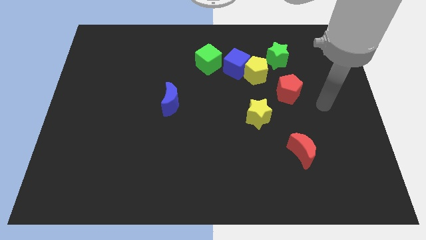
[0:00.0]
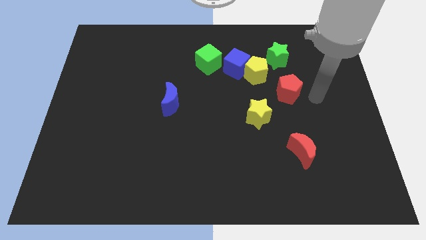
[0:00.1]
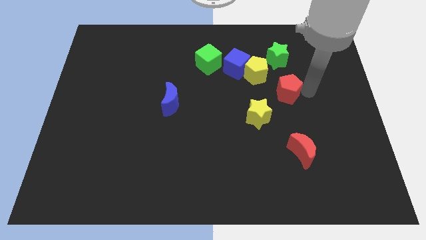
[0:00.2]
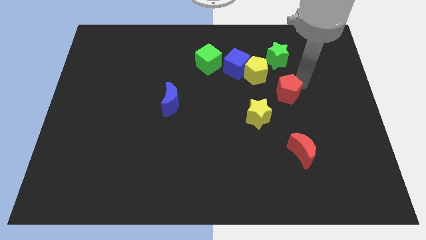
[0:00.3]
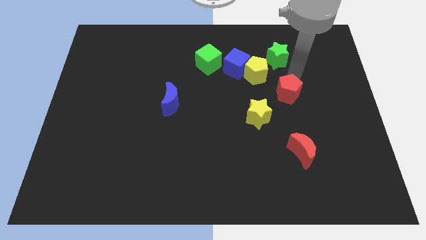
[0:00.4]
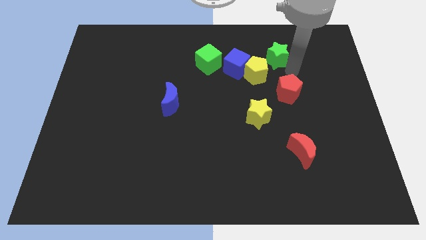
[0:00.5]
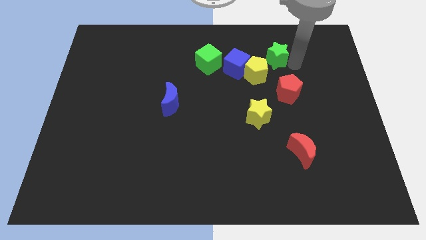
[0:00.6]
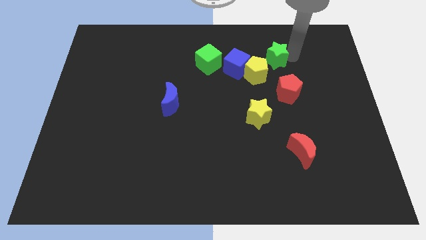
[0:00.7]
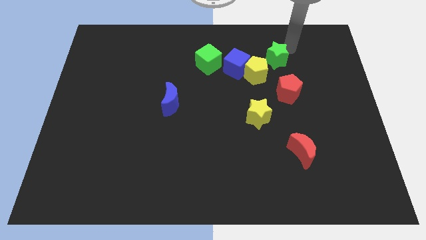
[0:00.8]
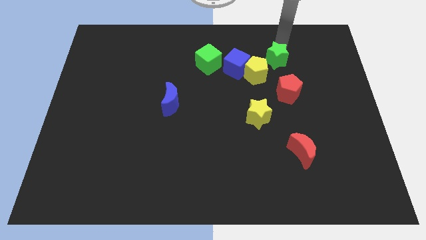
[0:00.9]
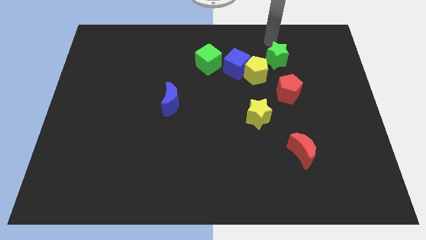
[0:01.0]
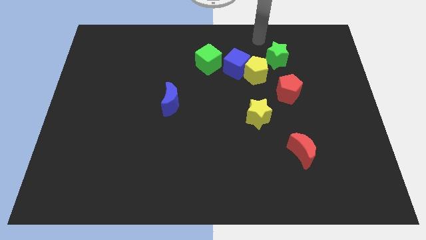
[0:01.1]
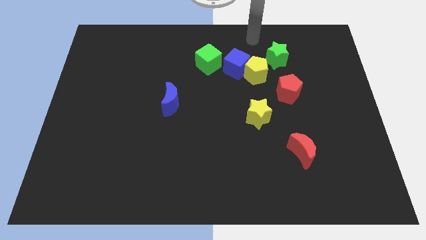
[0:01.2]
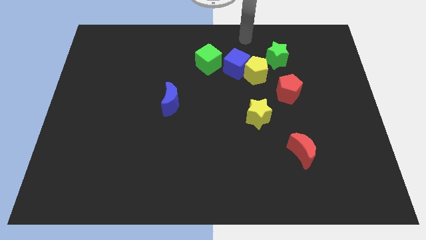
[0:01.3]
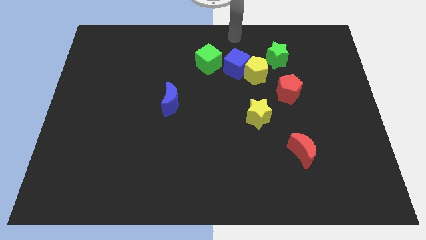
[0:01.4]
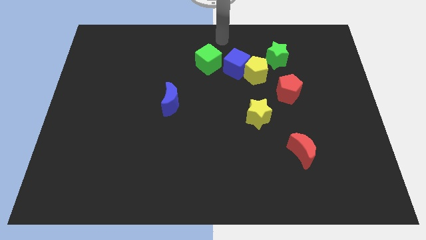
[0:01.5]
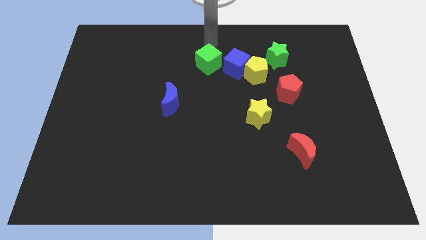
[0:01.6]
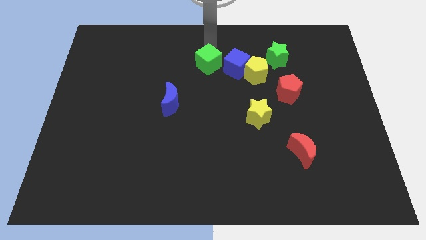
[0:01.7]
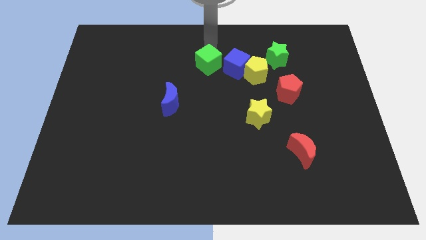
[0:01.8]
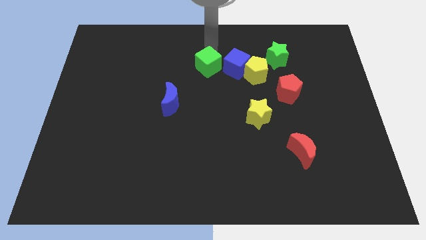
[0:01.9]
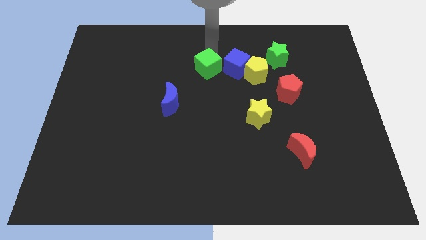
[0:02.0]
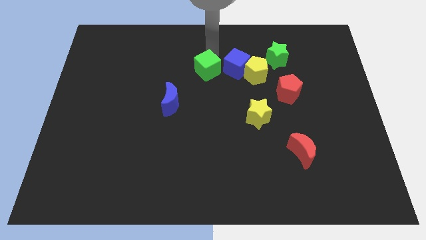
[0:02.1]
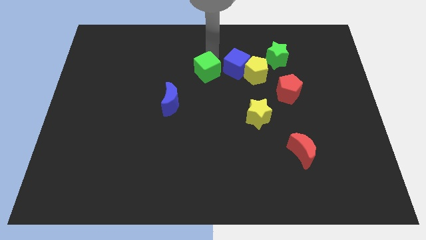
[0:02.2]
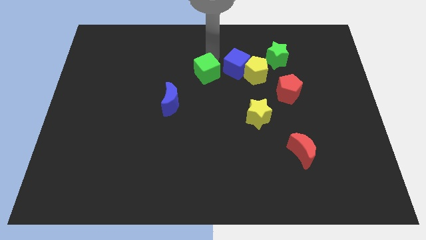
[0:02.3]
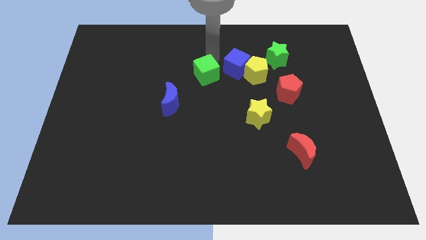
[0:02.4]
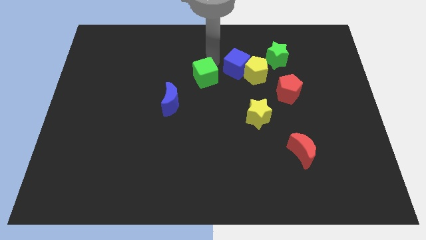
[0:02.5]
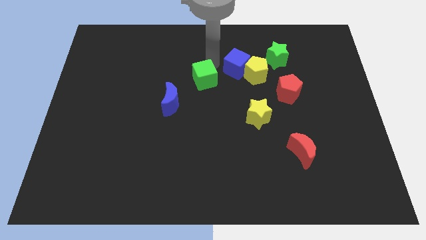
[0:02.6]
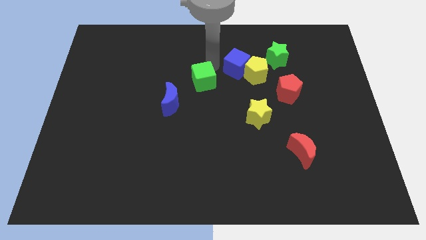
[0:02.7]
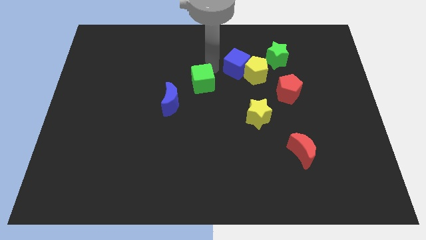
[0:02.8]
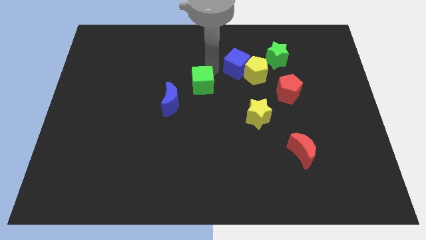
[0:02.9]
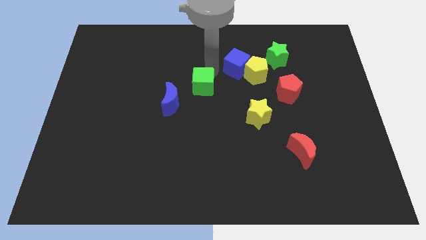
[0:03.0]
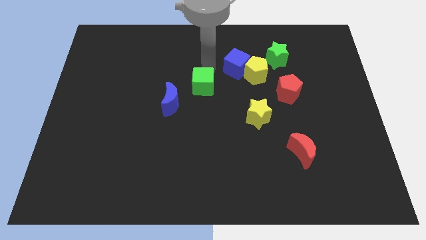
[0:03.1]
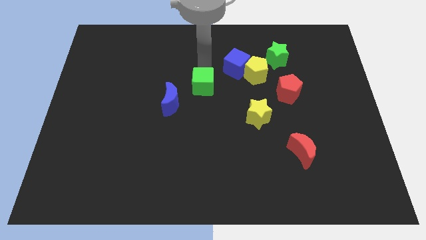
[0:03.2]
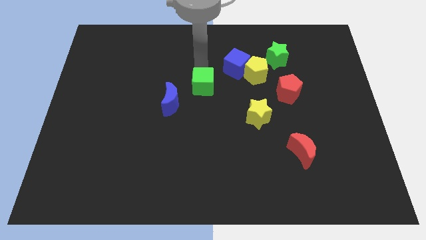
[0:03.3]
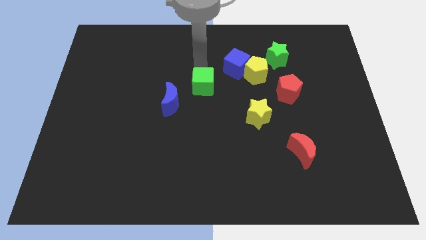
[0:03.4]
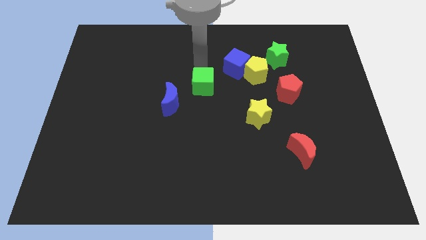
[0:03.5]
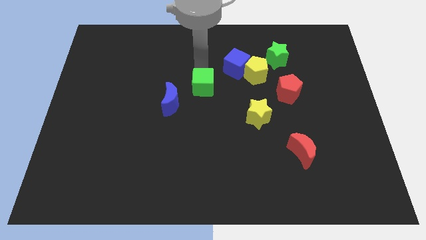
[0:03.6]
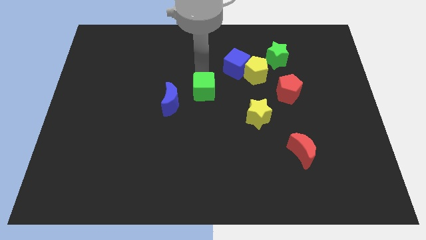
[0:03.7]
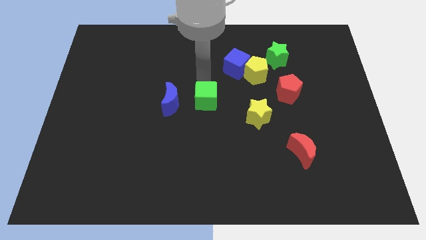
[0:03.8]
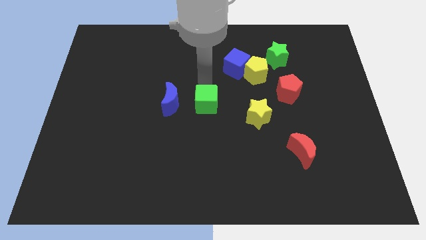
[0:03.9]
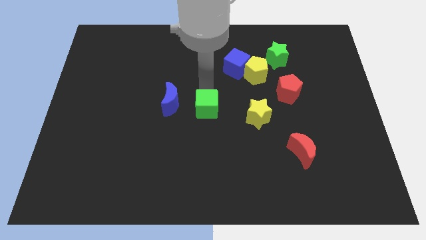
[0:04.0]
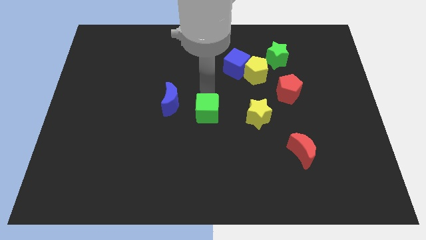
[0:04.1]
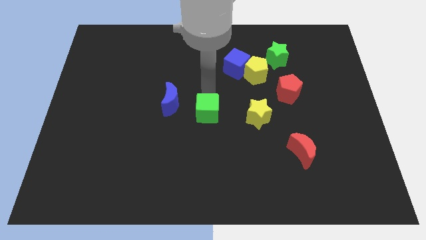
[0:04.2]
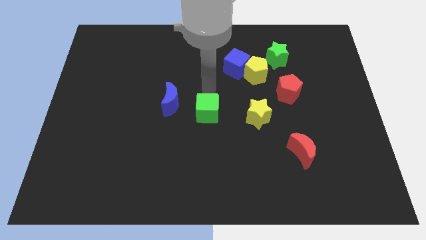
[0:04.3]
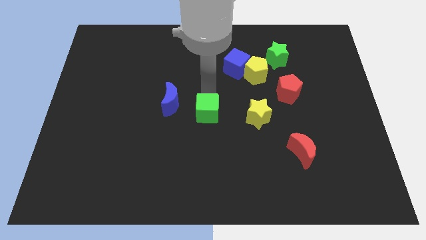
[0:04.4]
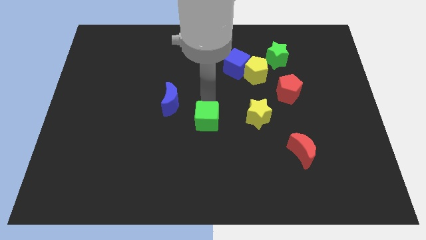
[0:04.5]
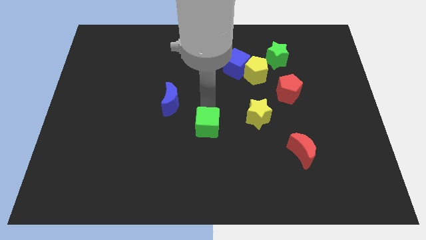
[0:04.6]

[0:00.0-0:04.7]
push the green cube downwards

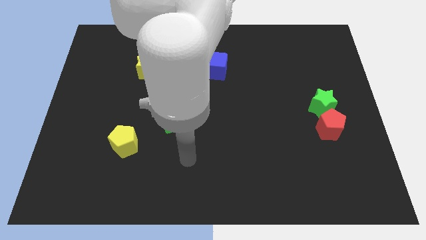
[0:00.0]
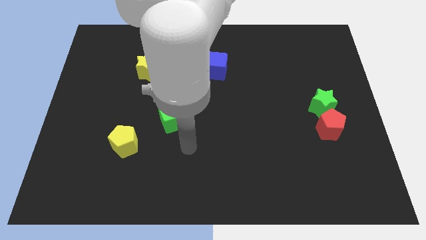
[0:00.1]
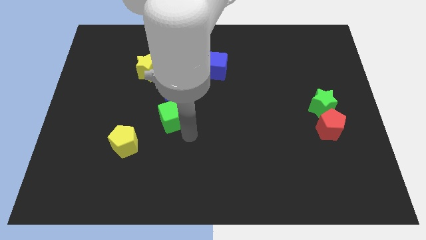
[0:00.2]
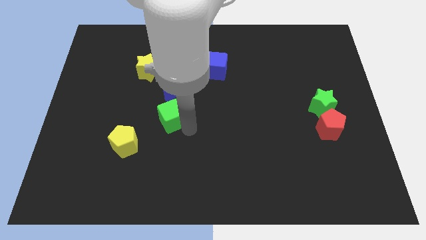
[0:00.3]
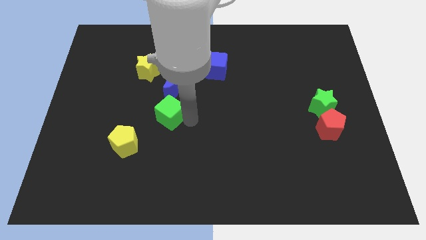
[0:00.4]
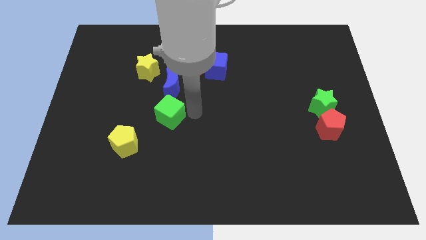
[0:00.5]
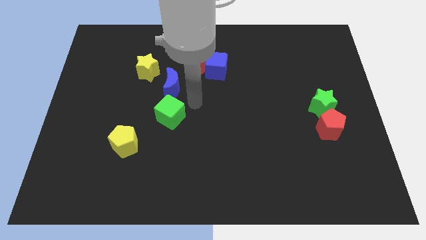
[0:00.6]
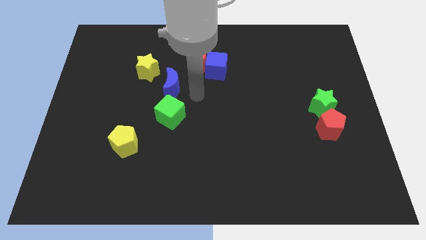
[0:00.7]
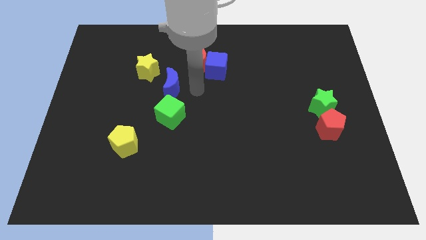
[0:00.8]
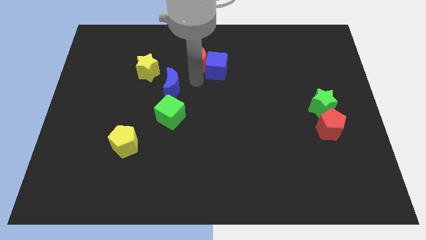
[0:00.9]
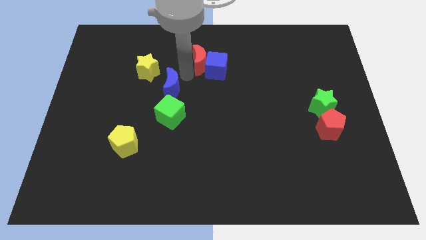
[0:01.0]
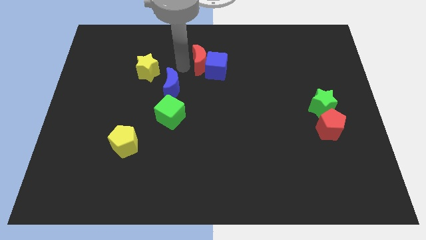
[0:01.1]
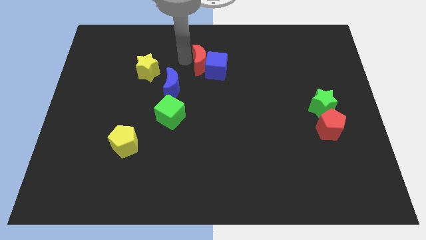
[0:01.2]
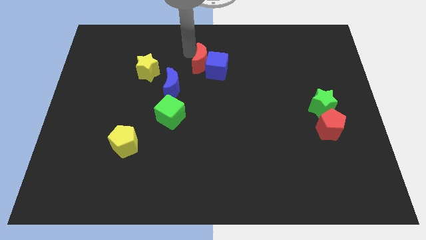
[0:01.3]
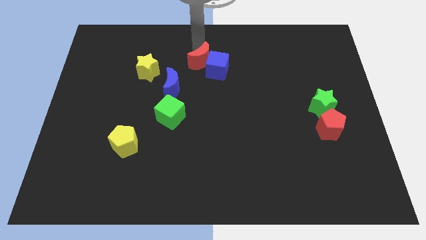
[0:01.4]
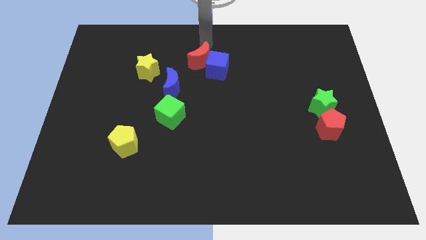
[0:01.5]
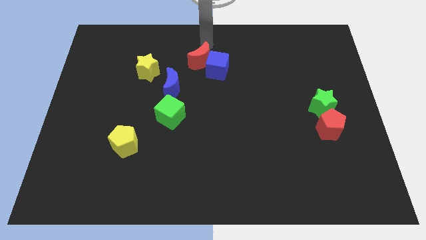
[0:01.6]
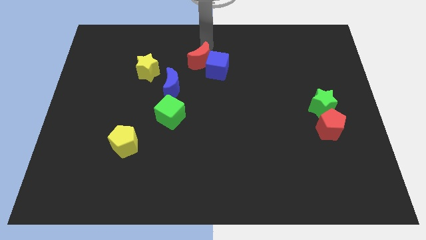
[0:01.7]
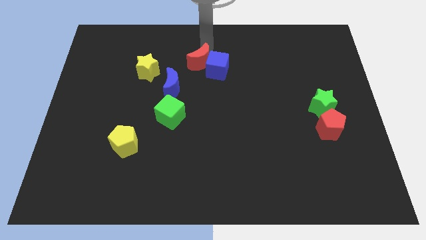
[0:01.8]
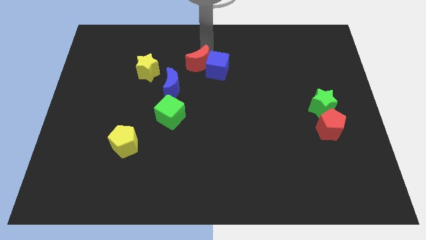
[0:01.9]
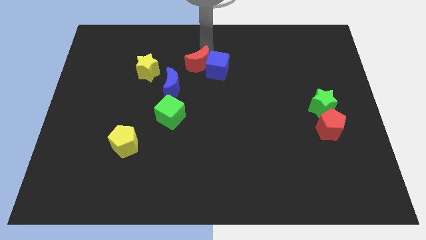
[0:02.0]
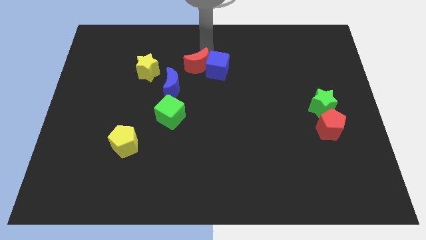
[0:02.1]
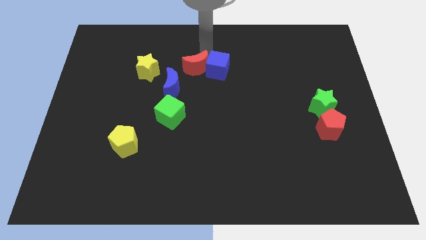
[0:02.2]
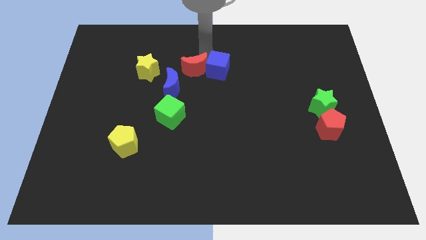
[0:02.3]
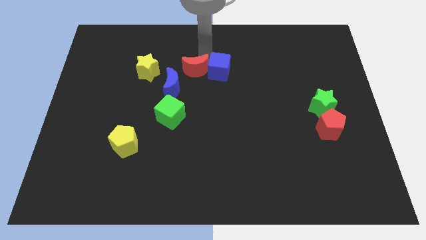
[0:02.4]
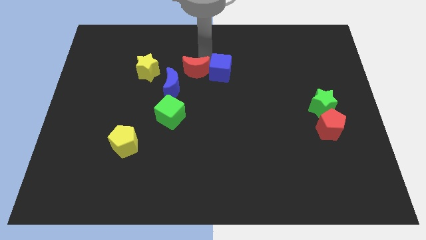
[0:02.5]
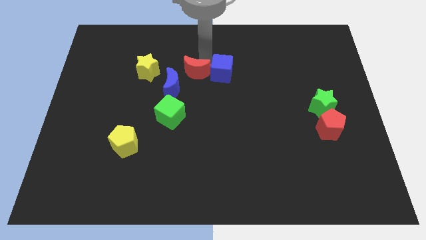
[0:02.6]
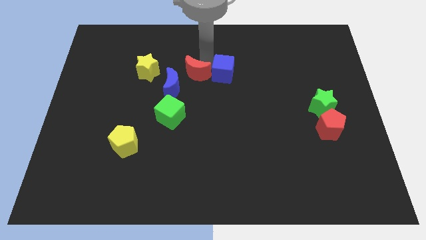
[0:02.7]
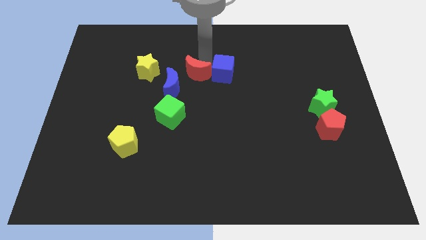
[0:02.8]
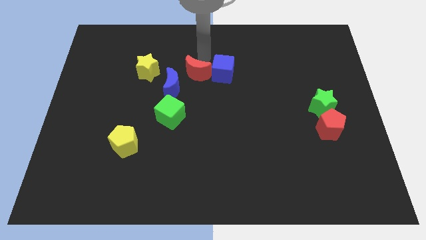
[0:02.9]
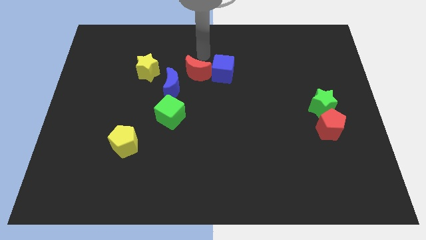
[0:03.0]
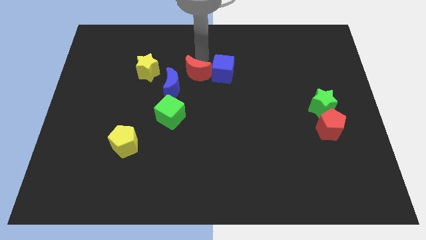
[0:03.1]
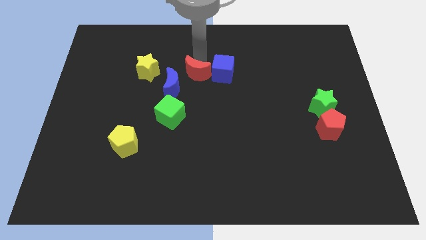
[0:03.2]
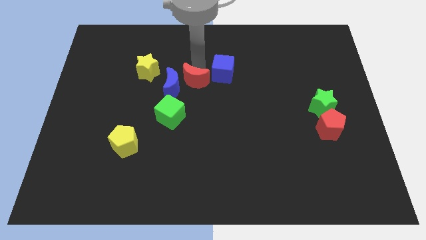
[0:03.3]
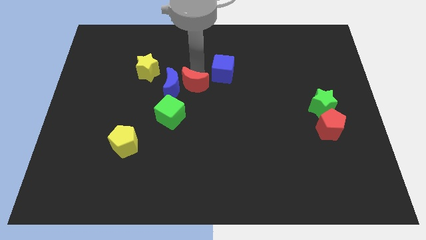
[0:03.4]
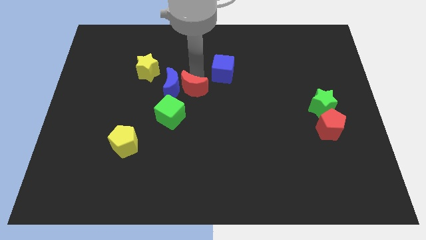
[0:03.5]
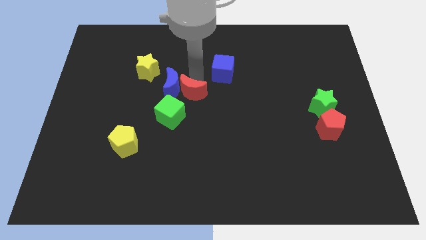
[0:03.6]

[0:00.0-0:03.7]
push the red moon somewhat downwards and to the left diagonally
